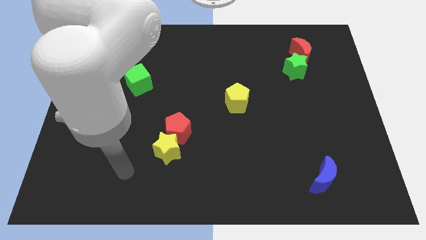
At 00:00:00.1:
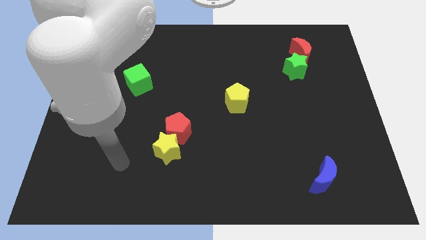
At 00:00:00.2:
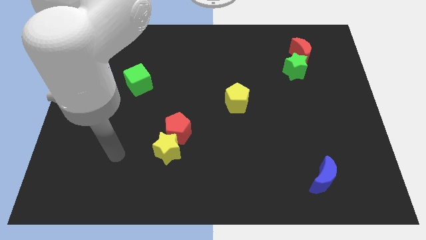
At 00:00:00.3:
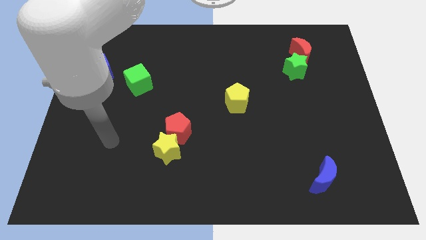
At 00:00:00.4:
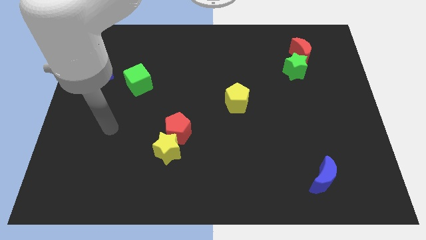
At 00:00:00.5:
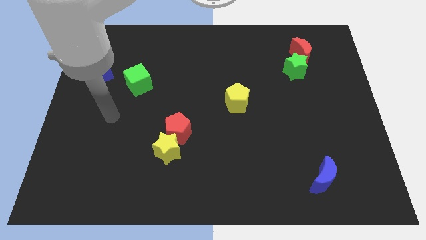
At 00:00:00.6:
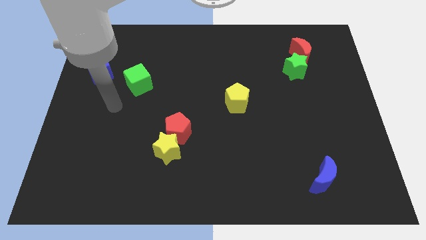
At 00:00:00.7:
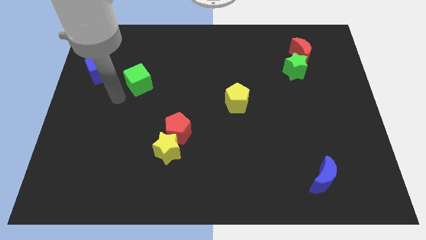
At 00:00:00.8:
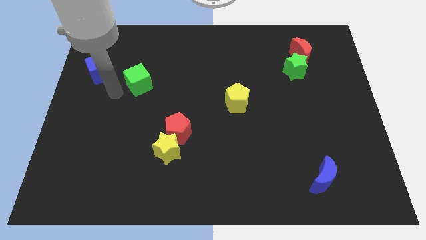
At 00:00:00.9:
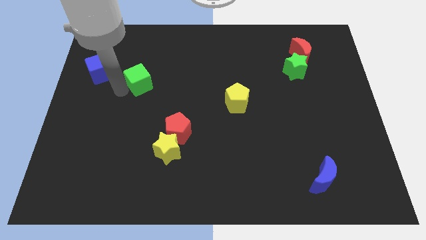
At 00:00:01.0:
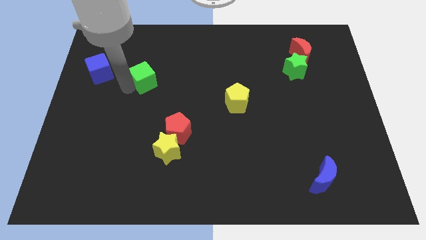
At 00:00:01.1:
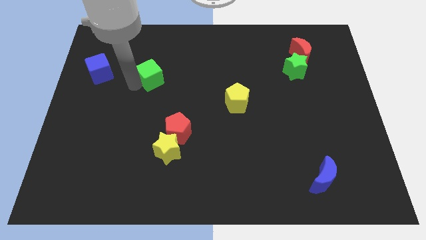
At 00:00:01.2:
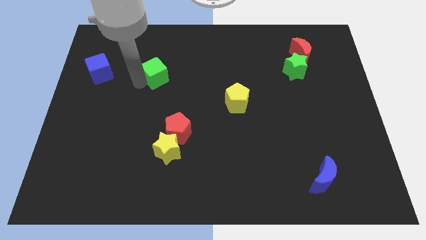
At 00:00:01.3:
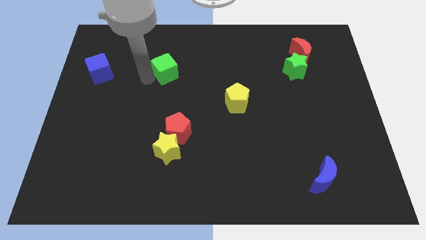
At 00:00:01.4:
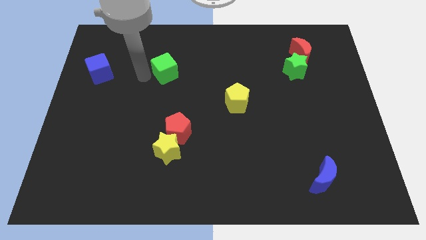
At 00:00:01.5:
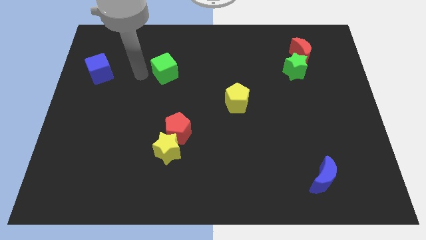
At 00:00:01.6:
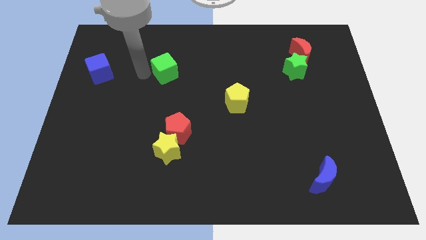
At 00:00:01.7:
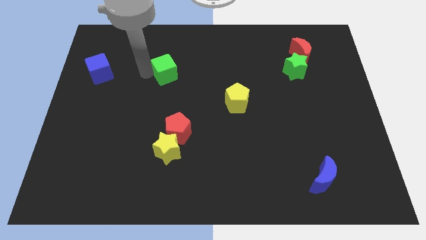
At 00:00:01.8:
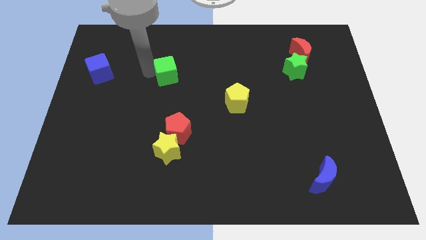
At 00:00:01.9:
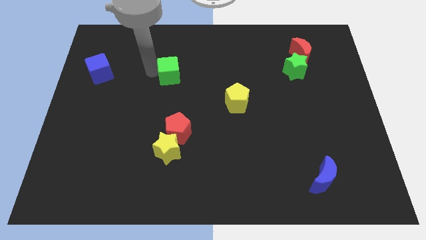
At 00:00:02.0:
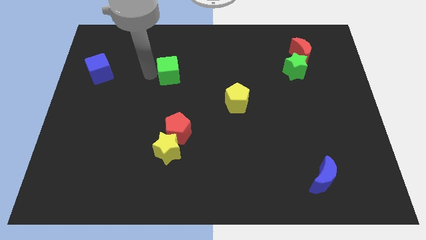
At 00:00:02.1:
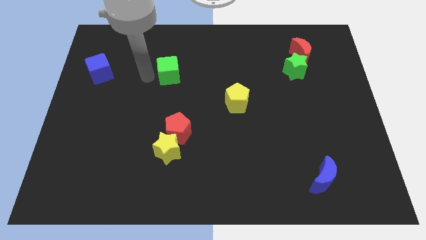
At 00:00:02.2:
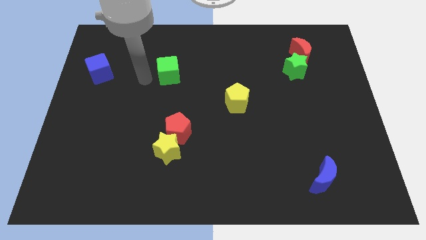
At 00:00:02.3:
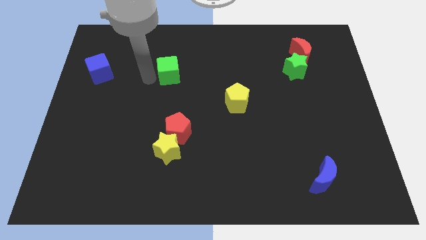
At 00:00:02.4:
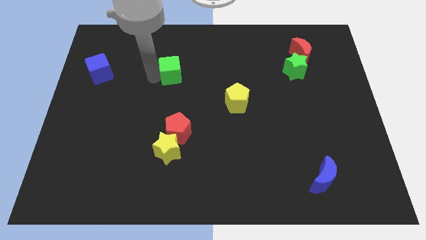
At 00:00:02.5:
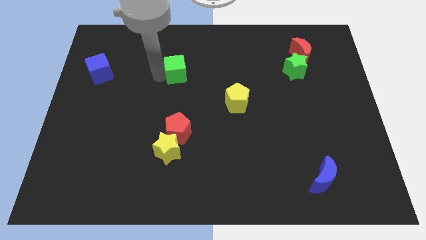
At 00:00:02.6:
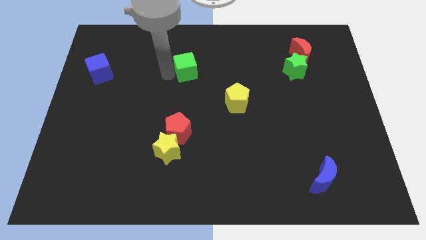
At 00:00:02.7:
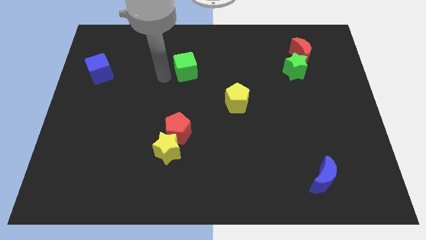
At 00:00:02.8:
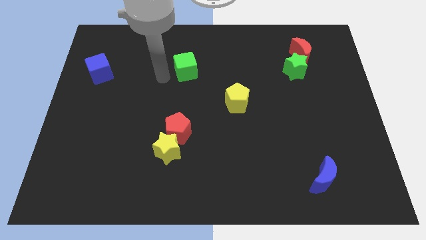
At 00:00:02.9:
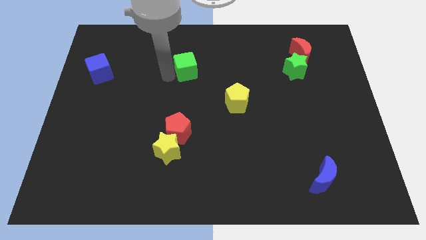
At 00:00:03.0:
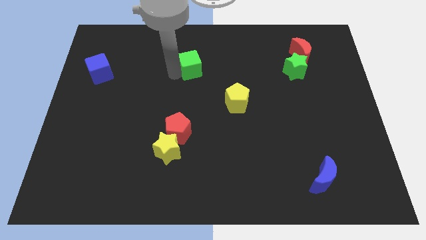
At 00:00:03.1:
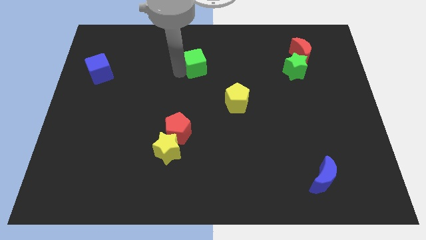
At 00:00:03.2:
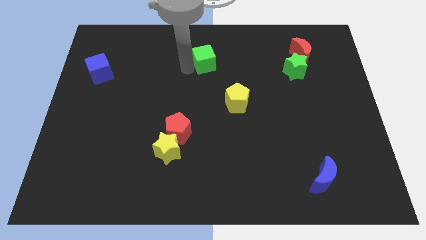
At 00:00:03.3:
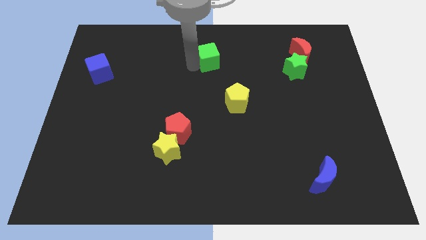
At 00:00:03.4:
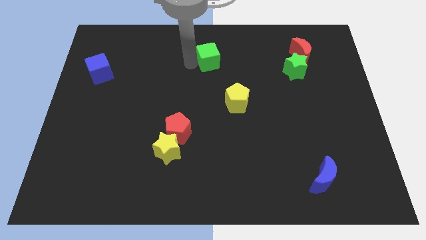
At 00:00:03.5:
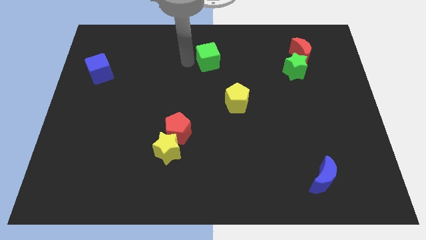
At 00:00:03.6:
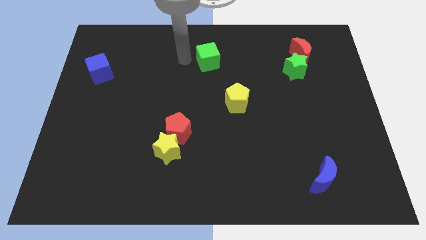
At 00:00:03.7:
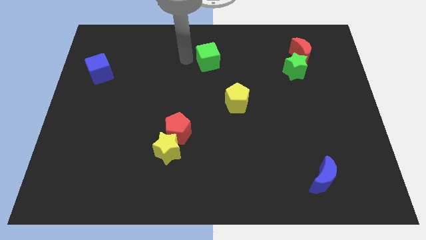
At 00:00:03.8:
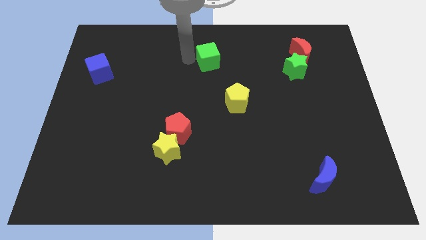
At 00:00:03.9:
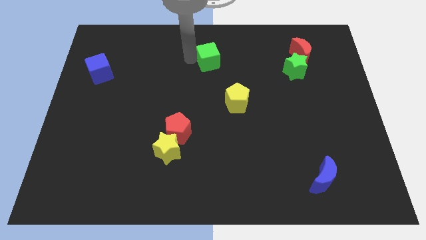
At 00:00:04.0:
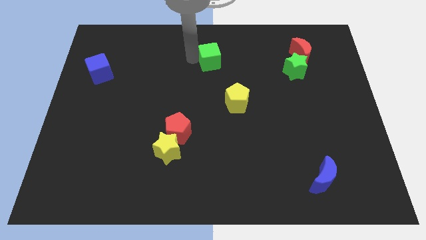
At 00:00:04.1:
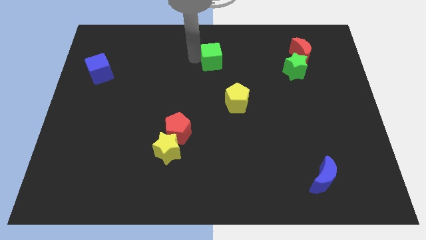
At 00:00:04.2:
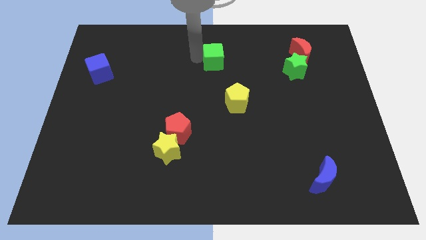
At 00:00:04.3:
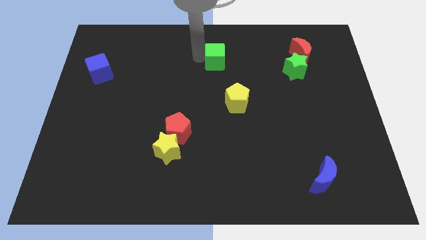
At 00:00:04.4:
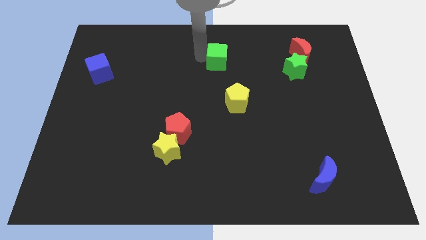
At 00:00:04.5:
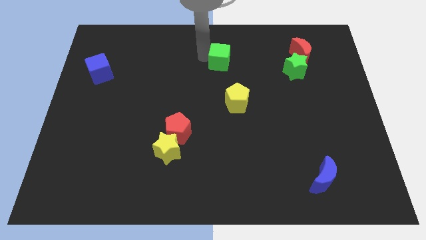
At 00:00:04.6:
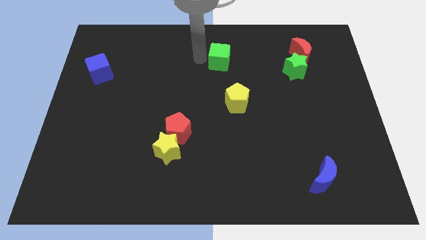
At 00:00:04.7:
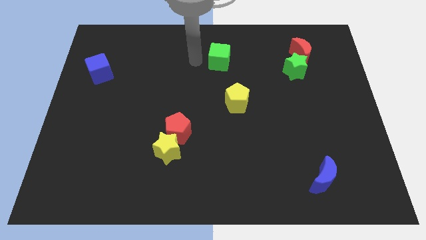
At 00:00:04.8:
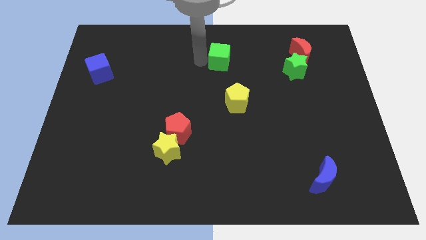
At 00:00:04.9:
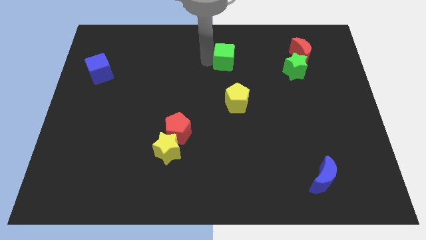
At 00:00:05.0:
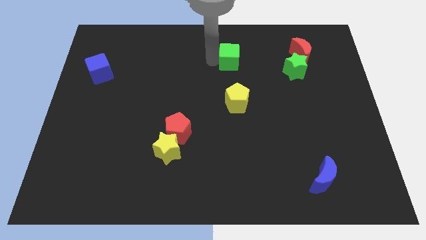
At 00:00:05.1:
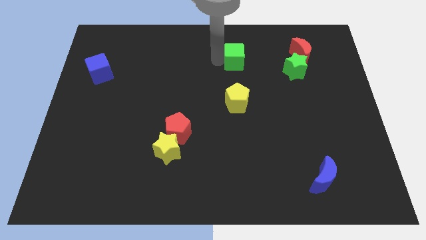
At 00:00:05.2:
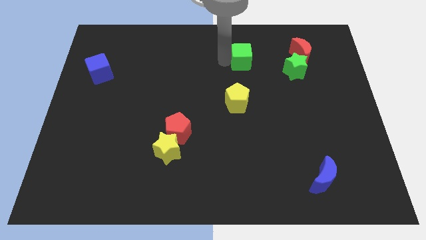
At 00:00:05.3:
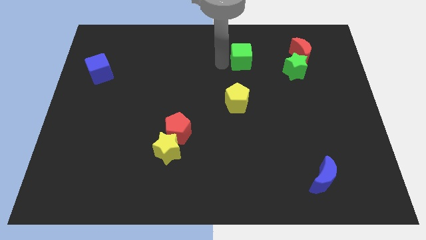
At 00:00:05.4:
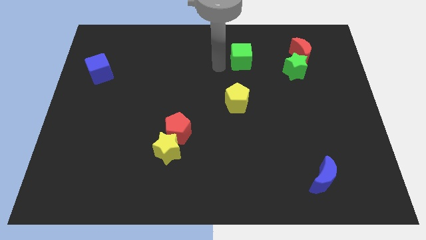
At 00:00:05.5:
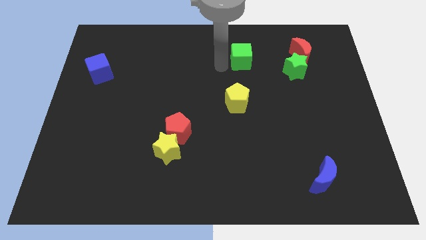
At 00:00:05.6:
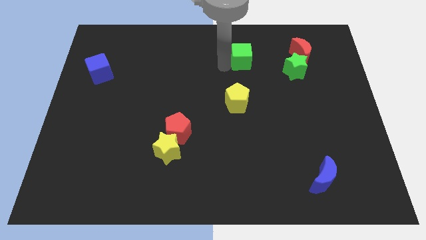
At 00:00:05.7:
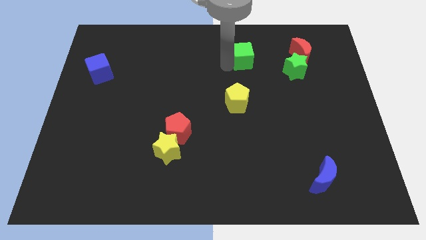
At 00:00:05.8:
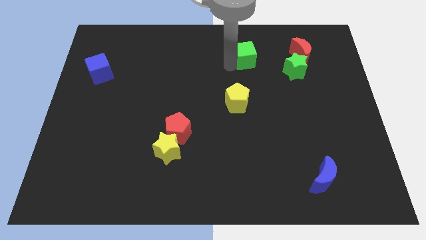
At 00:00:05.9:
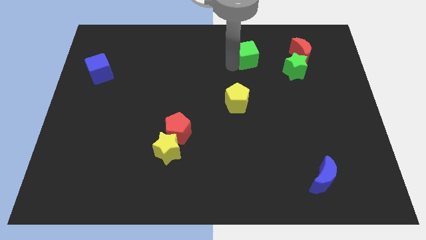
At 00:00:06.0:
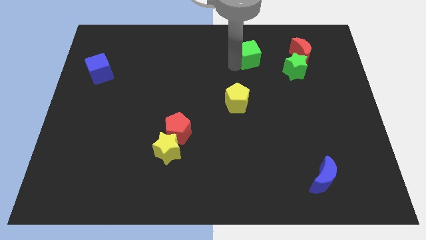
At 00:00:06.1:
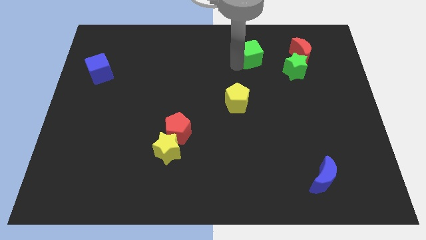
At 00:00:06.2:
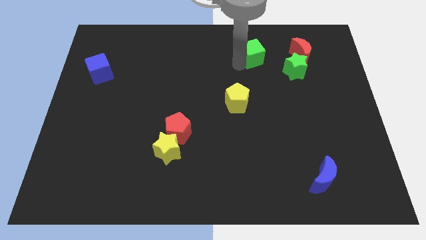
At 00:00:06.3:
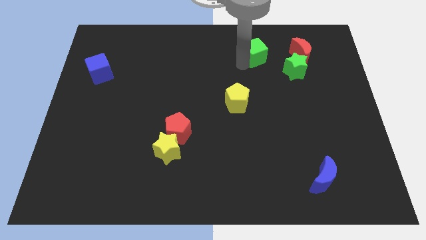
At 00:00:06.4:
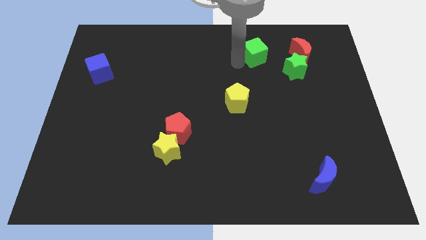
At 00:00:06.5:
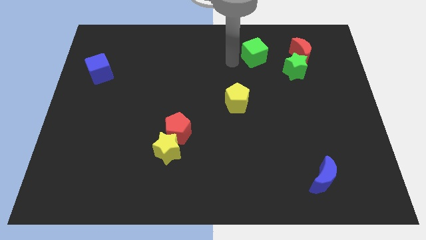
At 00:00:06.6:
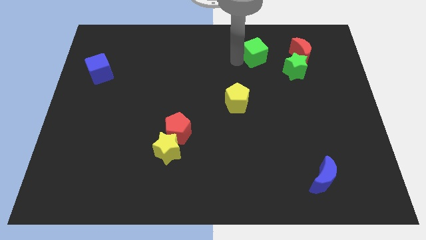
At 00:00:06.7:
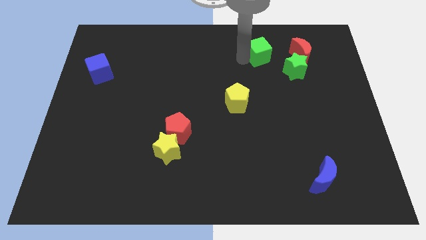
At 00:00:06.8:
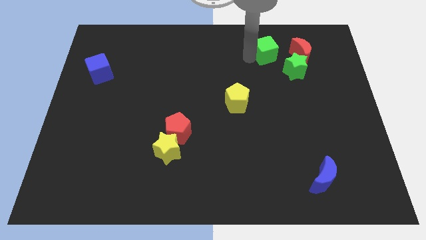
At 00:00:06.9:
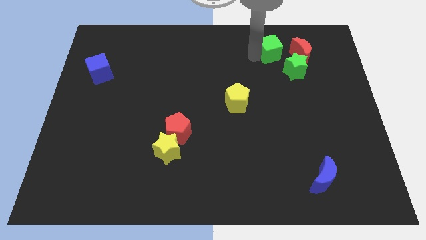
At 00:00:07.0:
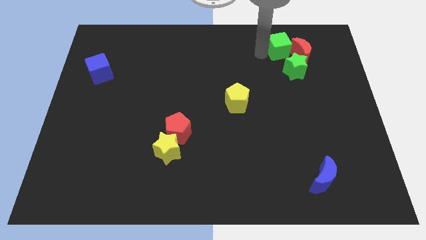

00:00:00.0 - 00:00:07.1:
move the green cube close to the red moon

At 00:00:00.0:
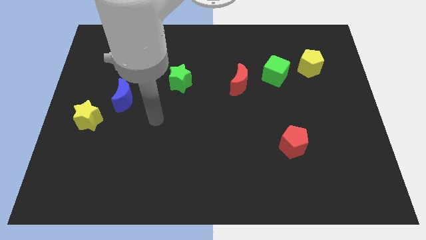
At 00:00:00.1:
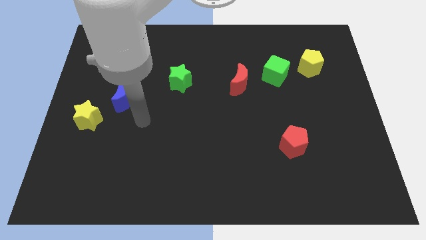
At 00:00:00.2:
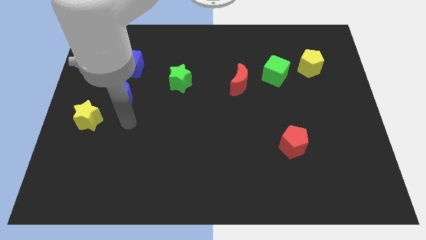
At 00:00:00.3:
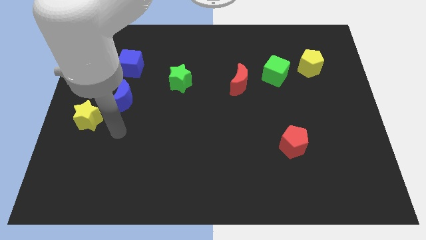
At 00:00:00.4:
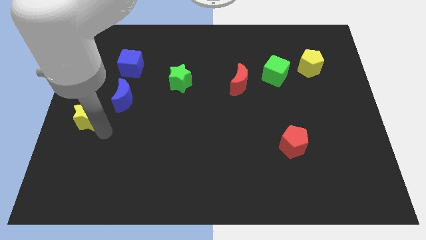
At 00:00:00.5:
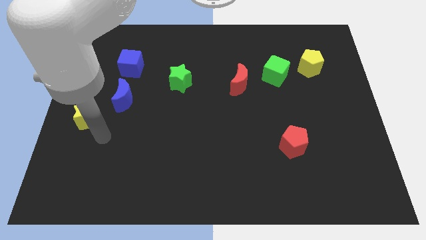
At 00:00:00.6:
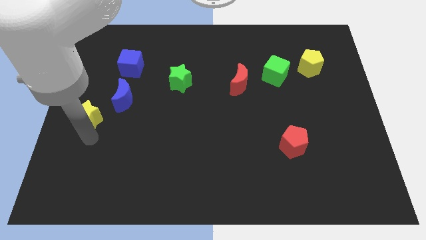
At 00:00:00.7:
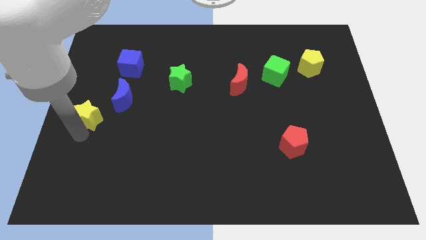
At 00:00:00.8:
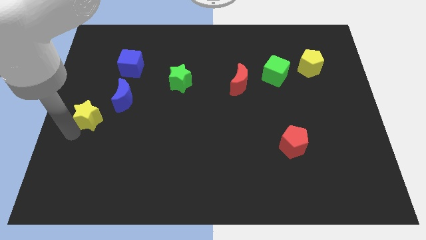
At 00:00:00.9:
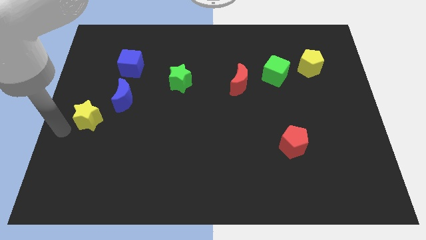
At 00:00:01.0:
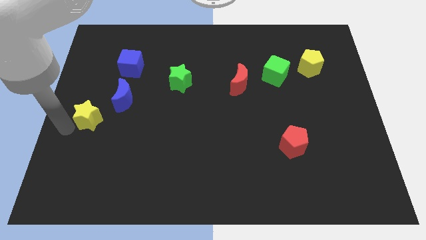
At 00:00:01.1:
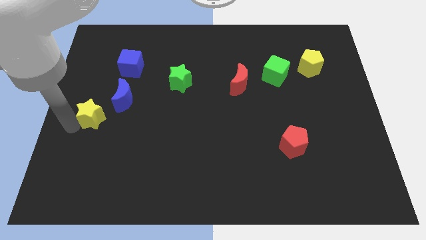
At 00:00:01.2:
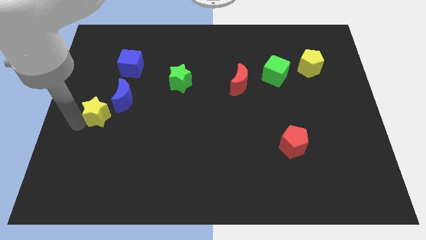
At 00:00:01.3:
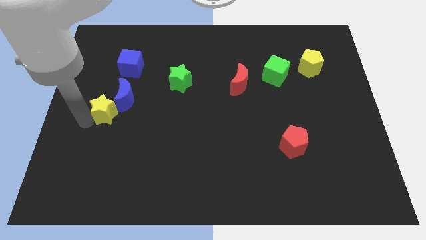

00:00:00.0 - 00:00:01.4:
put the yellow star towards the blue moon
